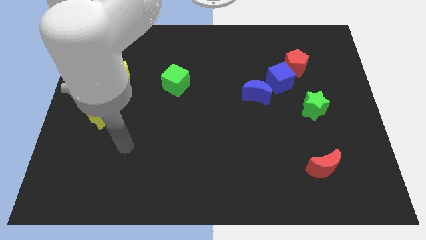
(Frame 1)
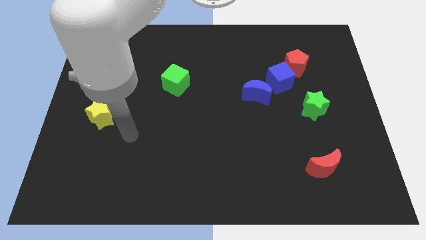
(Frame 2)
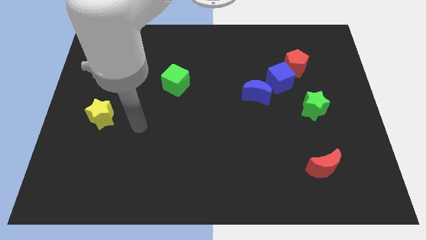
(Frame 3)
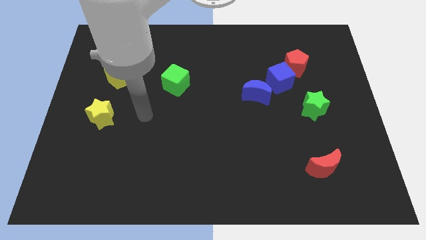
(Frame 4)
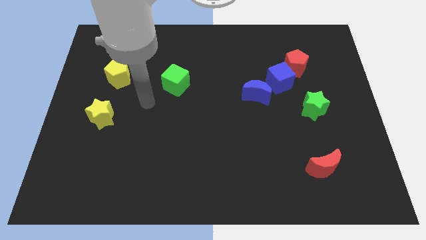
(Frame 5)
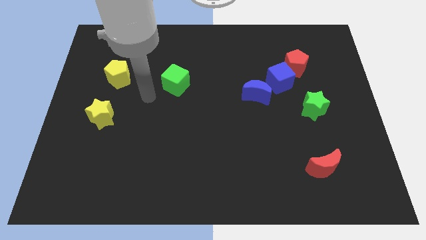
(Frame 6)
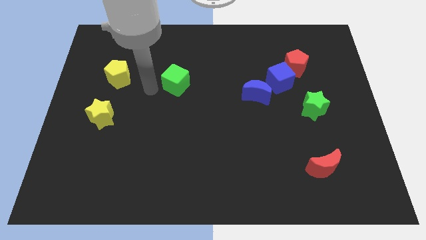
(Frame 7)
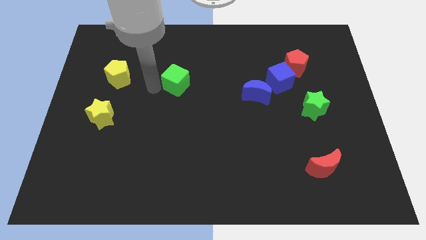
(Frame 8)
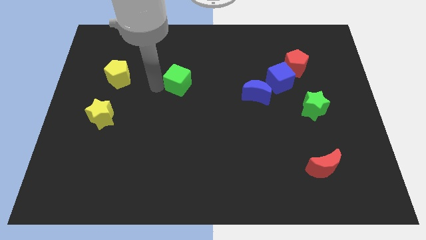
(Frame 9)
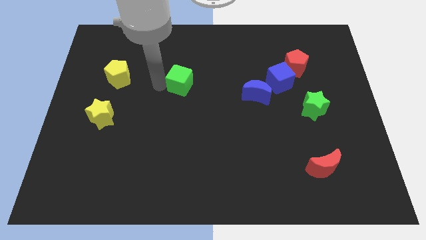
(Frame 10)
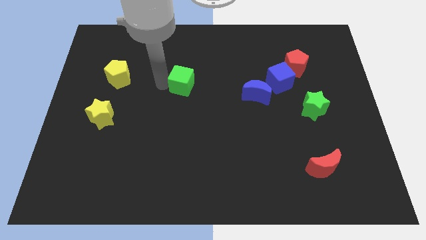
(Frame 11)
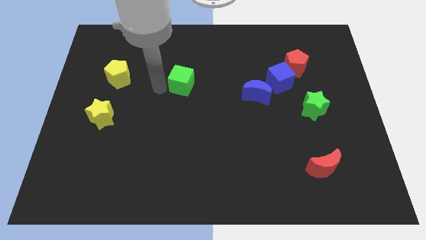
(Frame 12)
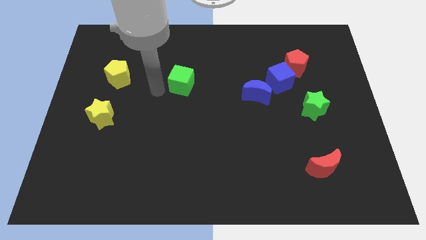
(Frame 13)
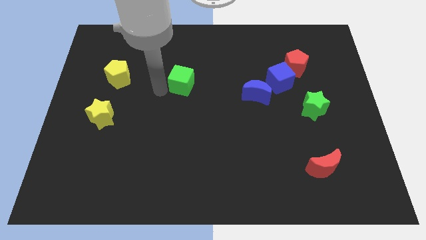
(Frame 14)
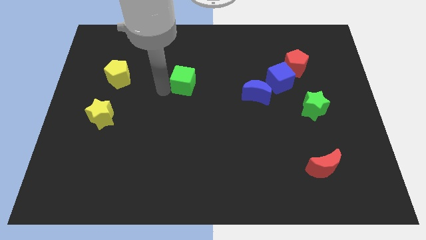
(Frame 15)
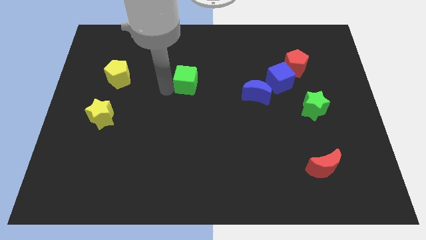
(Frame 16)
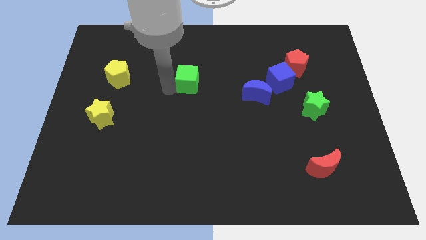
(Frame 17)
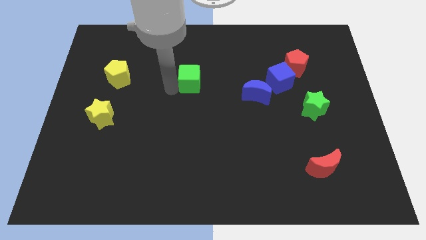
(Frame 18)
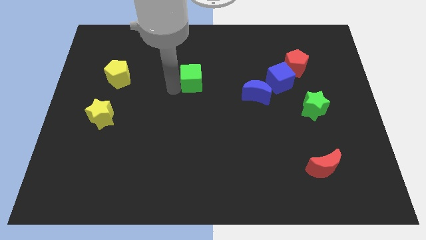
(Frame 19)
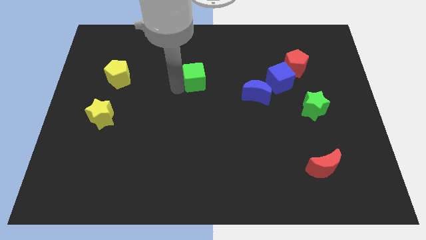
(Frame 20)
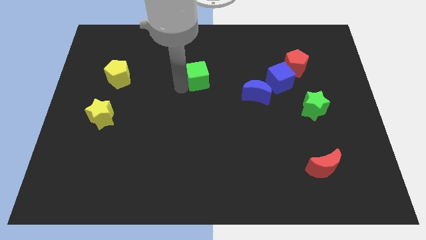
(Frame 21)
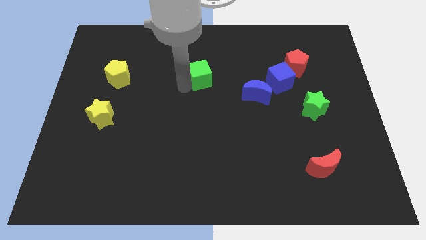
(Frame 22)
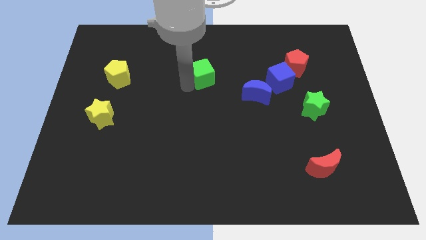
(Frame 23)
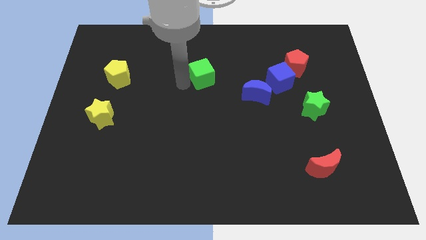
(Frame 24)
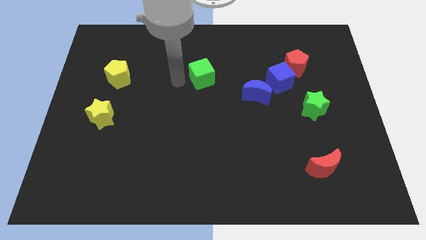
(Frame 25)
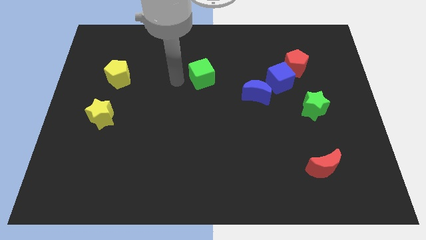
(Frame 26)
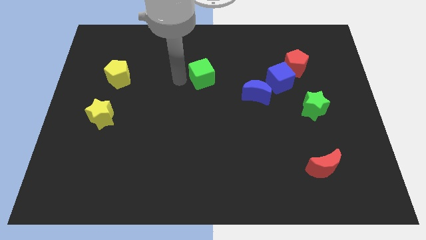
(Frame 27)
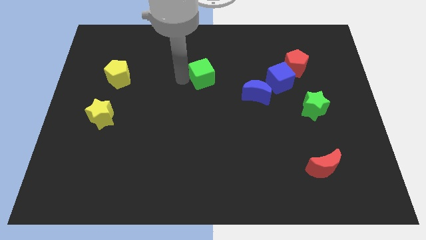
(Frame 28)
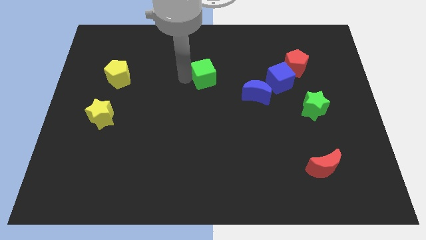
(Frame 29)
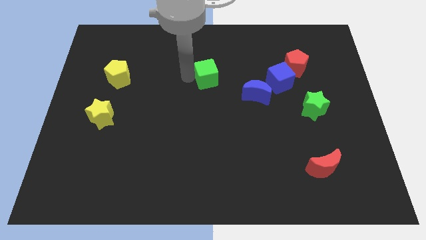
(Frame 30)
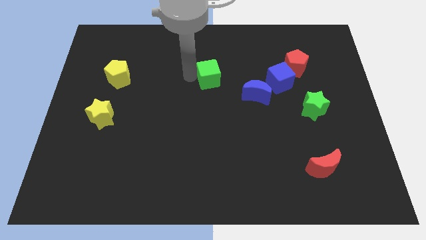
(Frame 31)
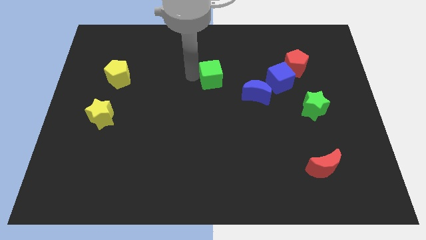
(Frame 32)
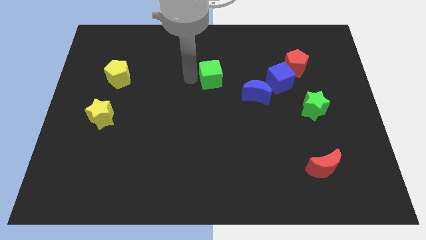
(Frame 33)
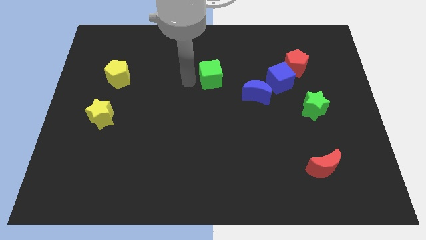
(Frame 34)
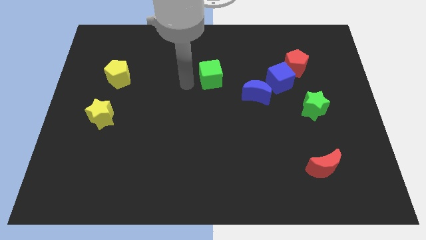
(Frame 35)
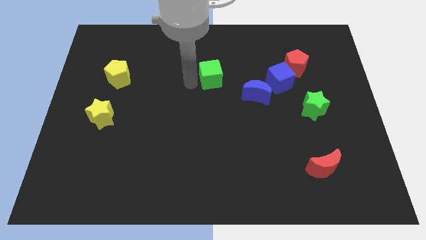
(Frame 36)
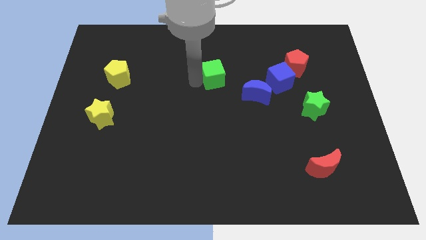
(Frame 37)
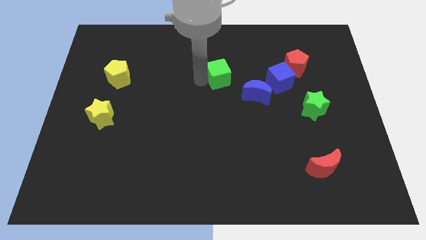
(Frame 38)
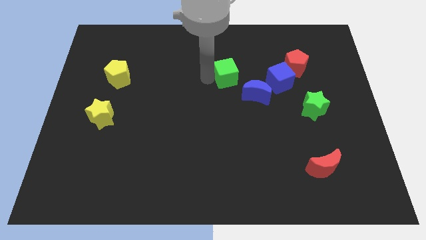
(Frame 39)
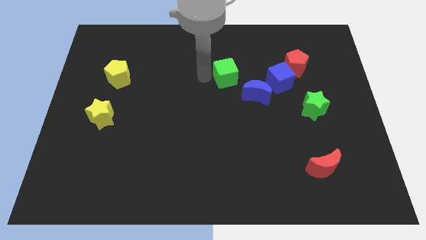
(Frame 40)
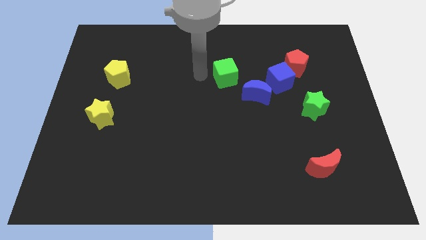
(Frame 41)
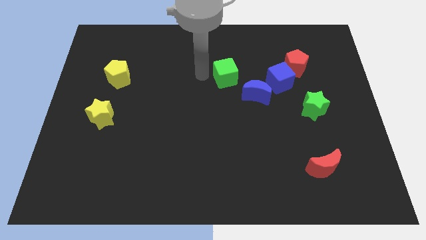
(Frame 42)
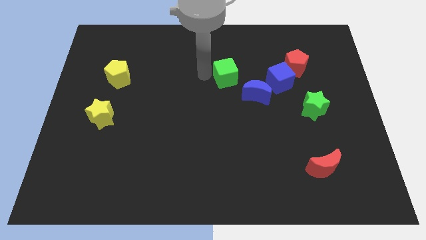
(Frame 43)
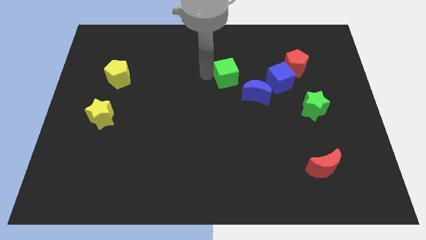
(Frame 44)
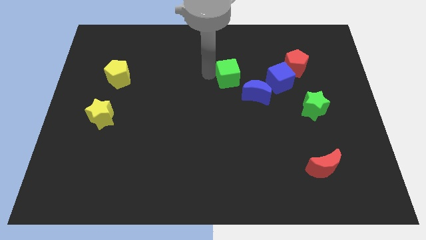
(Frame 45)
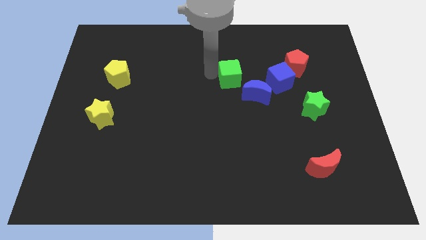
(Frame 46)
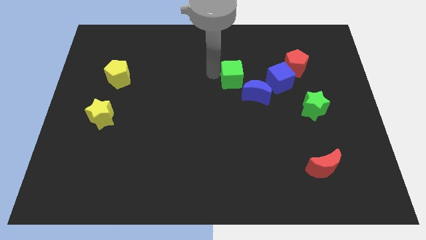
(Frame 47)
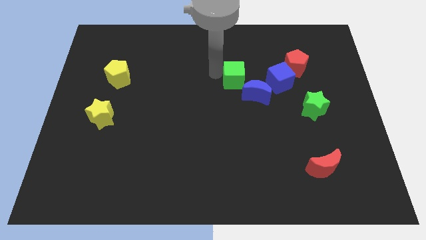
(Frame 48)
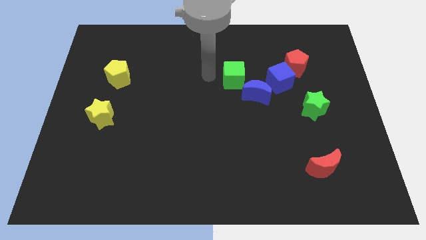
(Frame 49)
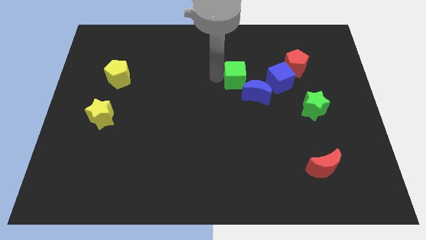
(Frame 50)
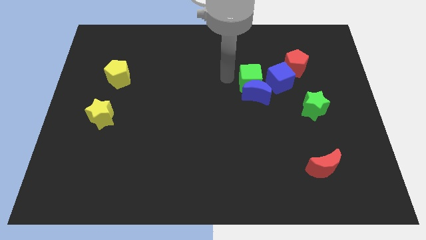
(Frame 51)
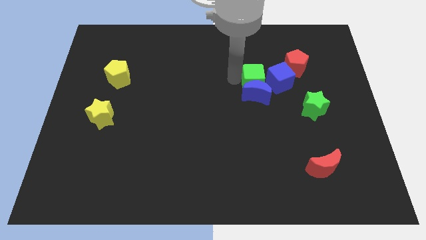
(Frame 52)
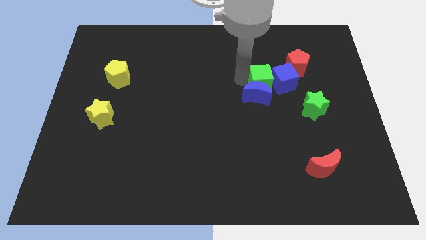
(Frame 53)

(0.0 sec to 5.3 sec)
push the green cube next to the blue cube

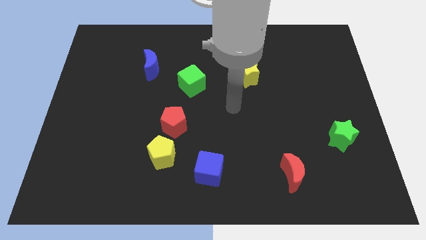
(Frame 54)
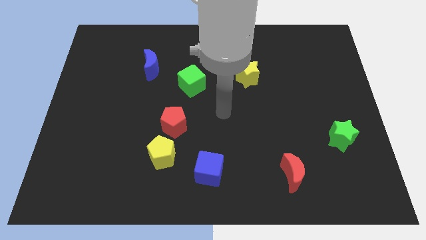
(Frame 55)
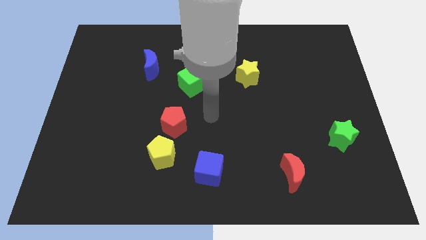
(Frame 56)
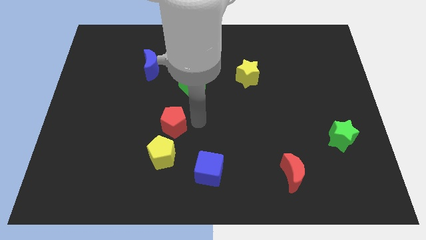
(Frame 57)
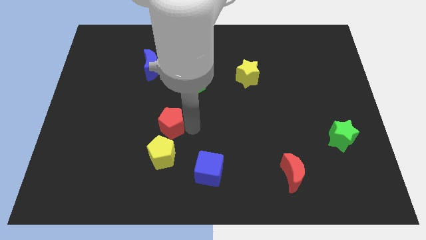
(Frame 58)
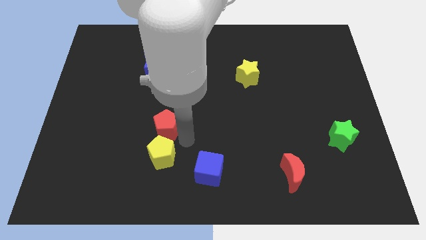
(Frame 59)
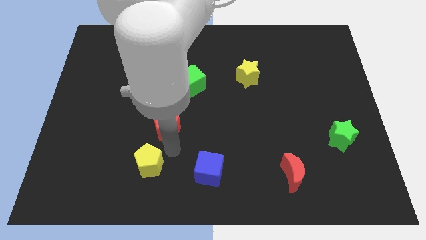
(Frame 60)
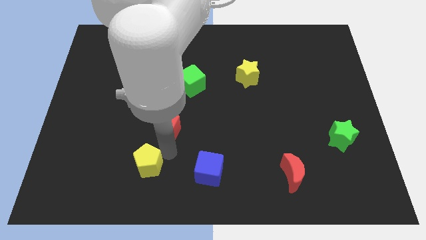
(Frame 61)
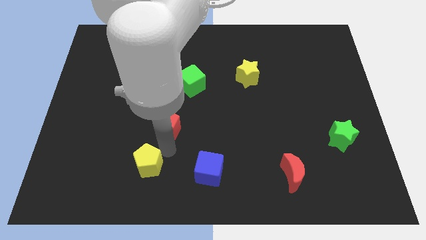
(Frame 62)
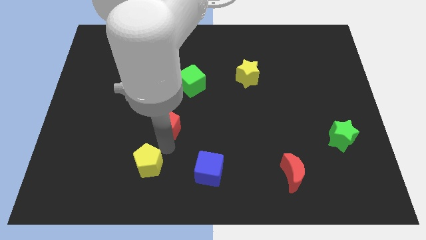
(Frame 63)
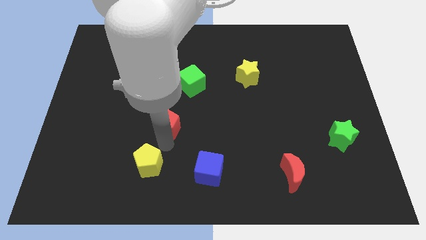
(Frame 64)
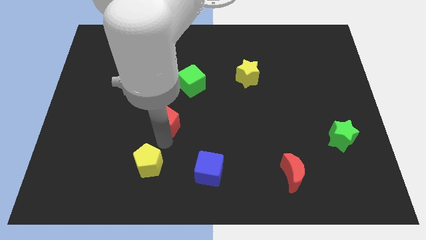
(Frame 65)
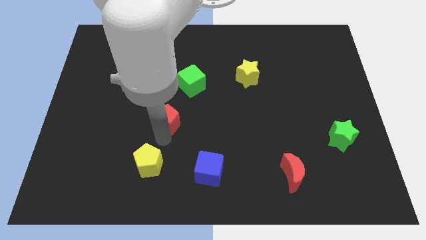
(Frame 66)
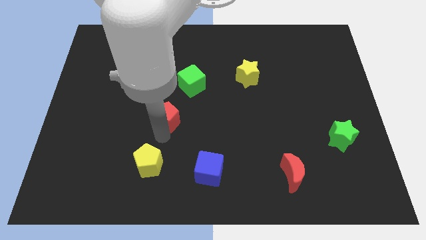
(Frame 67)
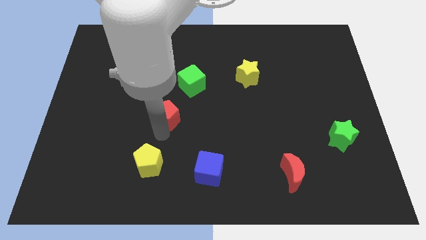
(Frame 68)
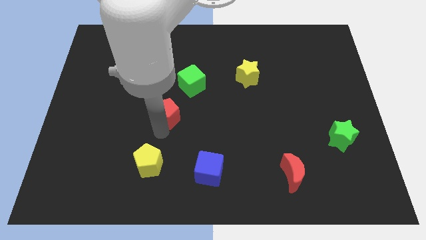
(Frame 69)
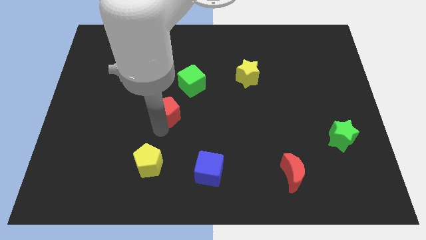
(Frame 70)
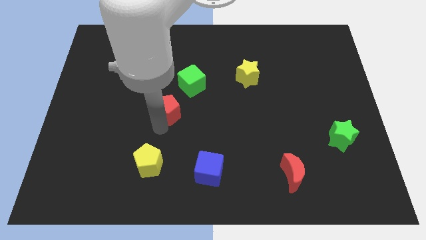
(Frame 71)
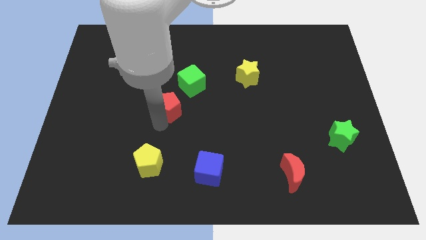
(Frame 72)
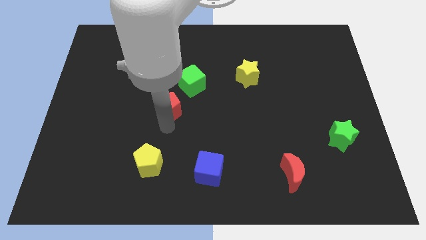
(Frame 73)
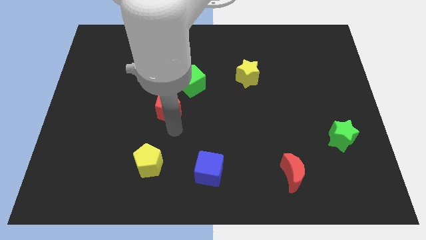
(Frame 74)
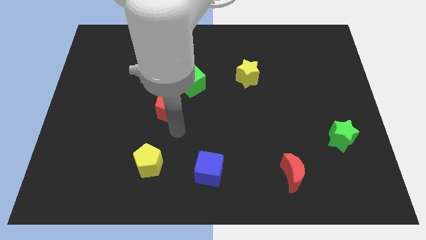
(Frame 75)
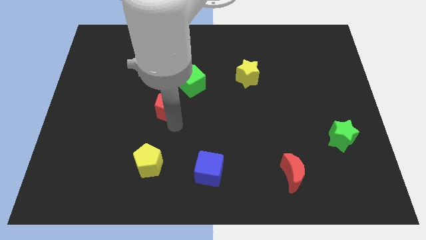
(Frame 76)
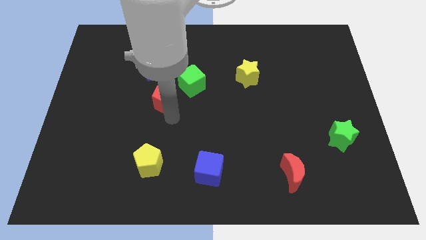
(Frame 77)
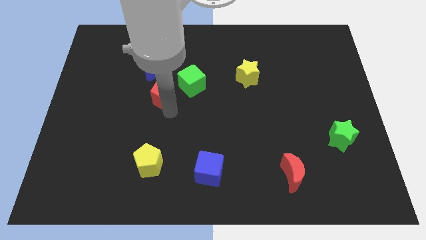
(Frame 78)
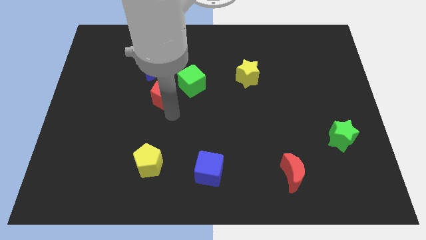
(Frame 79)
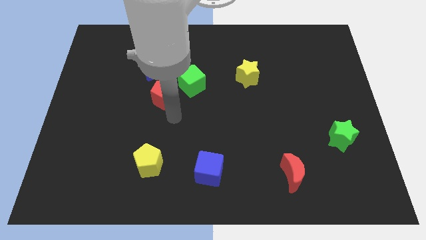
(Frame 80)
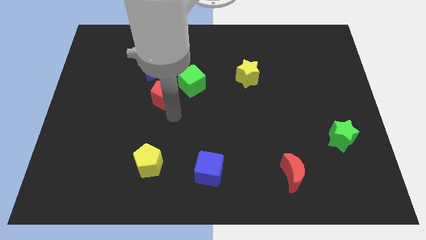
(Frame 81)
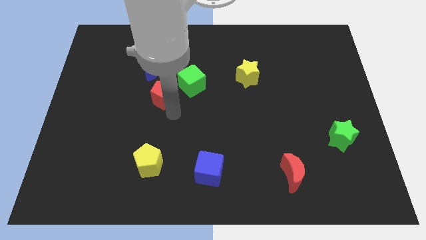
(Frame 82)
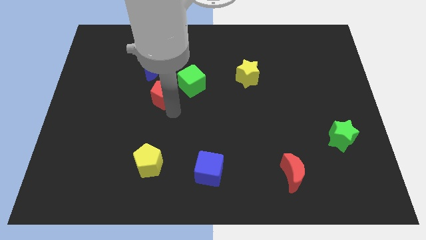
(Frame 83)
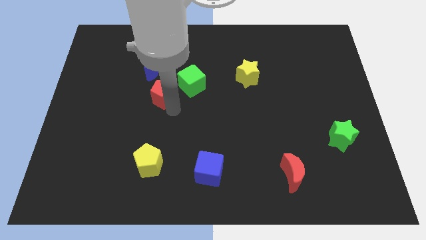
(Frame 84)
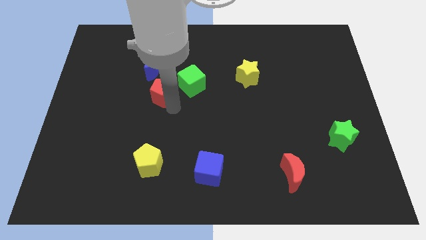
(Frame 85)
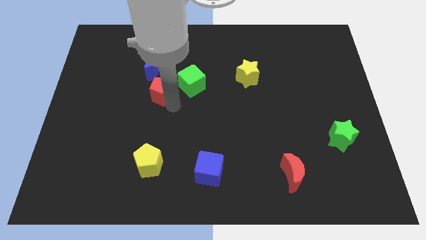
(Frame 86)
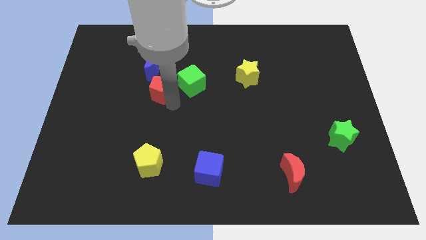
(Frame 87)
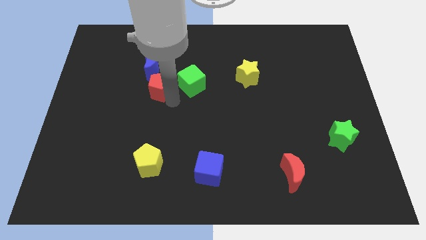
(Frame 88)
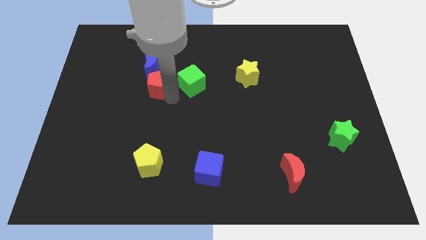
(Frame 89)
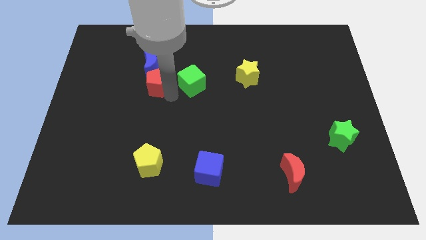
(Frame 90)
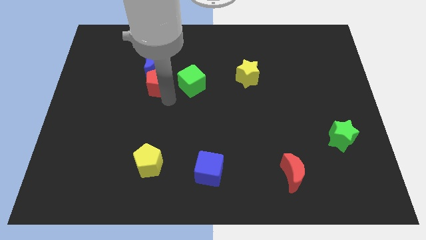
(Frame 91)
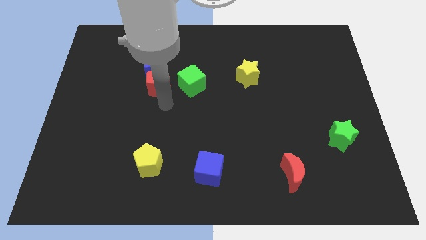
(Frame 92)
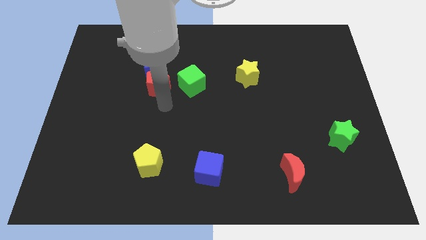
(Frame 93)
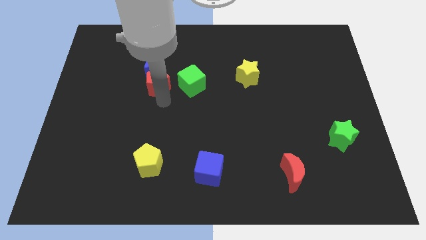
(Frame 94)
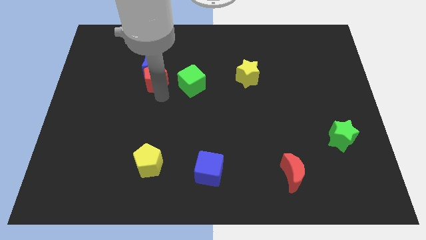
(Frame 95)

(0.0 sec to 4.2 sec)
push the red pentagon to the blue moon
